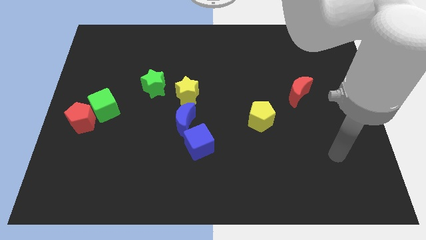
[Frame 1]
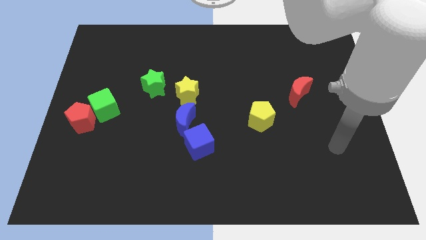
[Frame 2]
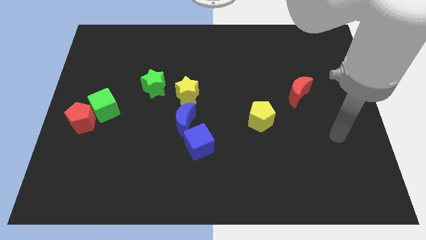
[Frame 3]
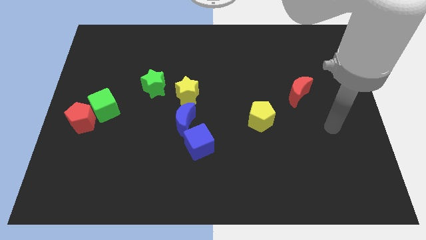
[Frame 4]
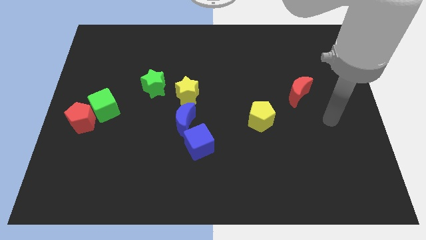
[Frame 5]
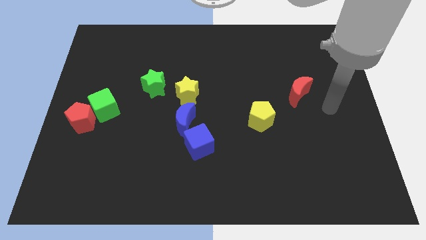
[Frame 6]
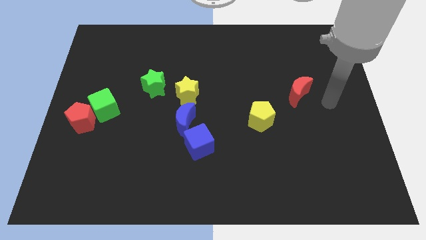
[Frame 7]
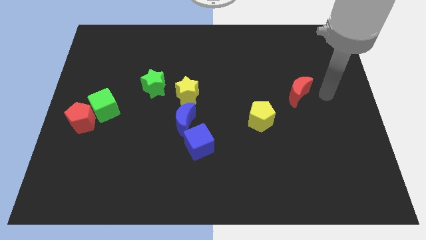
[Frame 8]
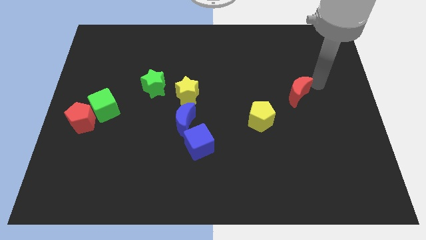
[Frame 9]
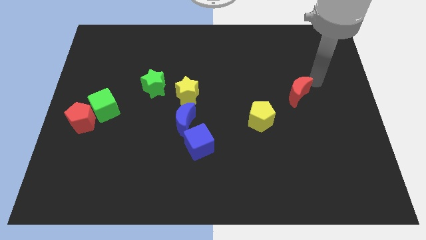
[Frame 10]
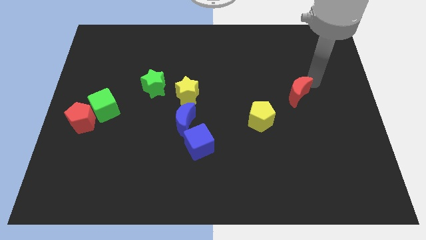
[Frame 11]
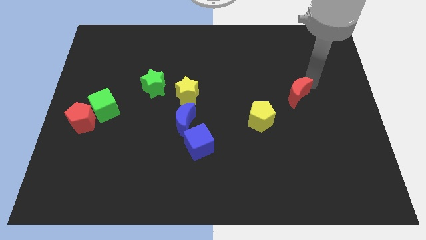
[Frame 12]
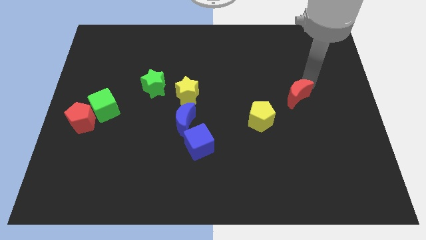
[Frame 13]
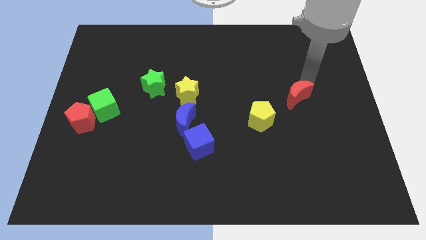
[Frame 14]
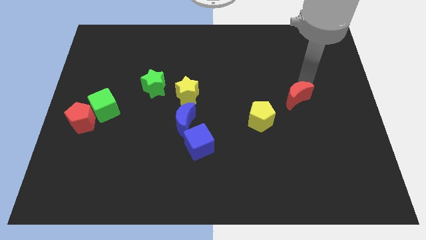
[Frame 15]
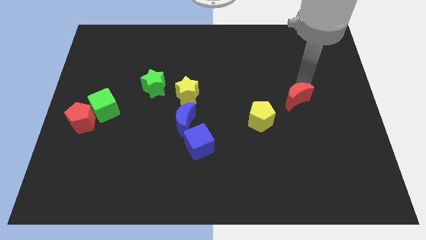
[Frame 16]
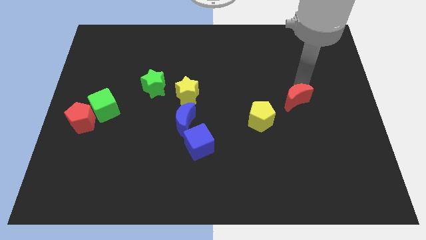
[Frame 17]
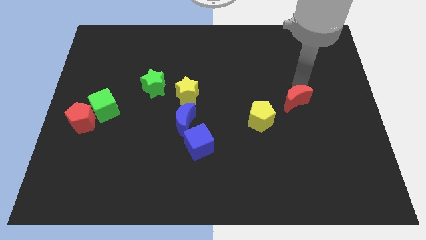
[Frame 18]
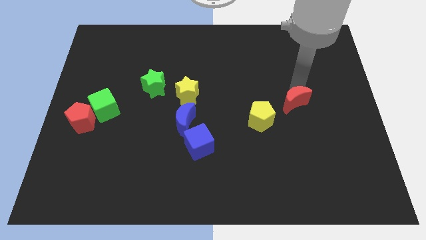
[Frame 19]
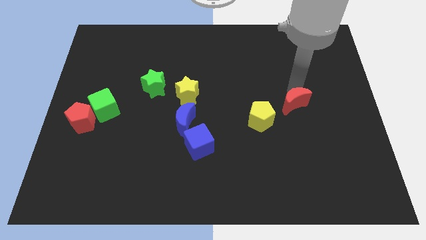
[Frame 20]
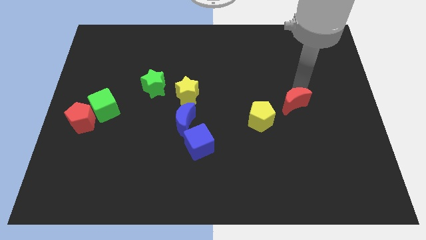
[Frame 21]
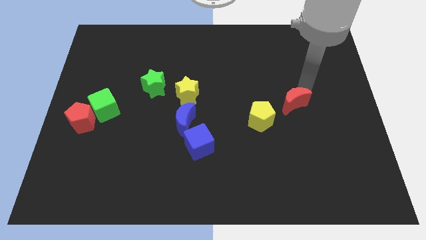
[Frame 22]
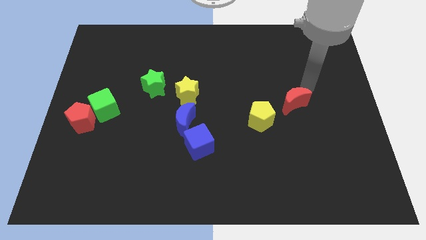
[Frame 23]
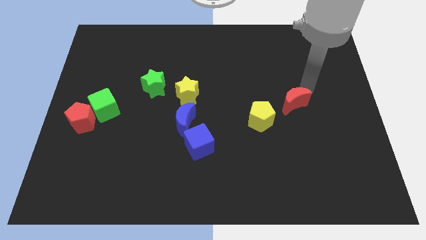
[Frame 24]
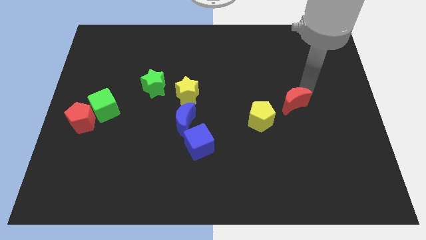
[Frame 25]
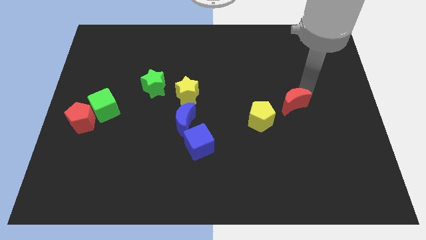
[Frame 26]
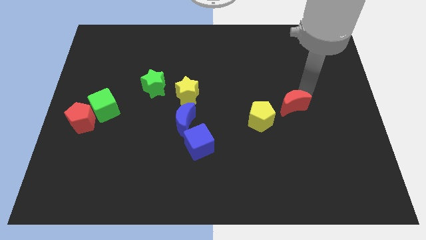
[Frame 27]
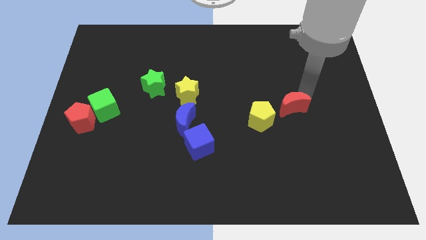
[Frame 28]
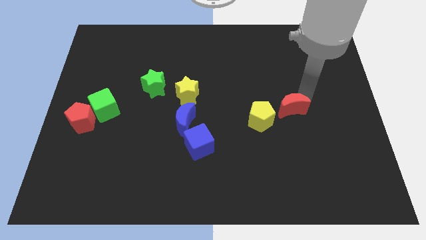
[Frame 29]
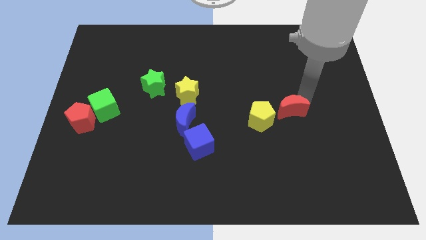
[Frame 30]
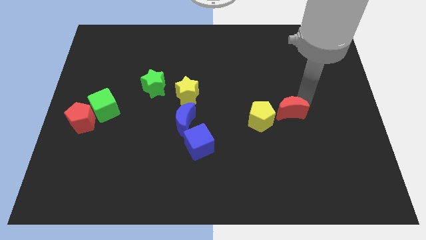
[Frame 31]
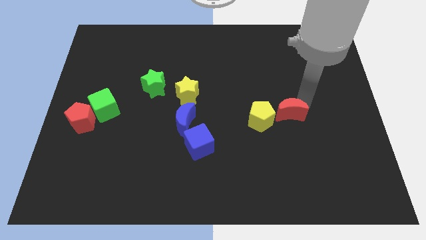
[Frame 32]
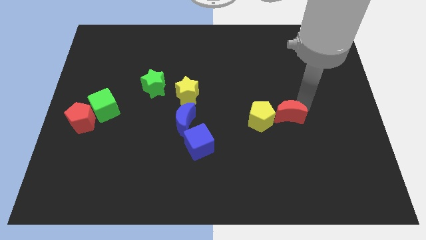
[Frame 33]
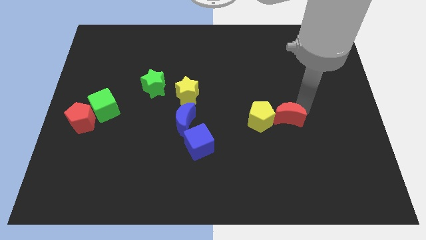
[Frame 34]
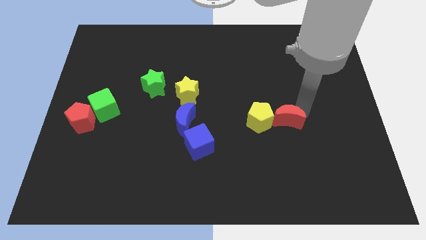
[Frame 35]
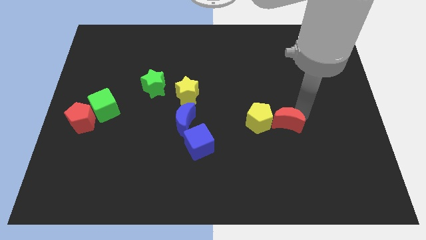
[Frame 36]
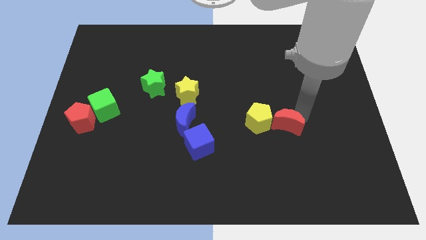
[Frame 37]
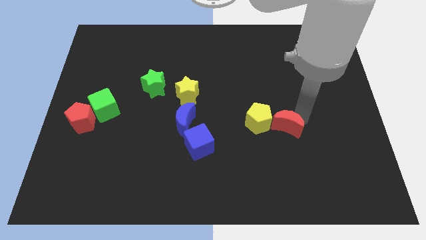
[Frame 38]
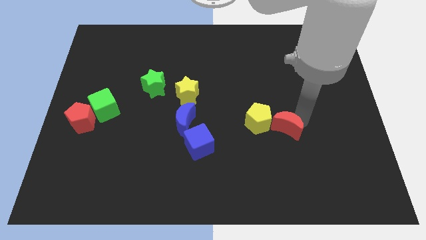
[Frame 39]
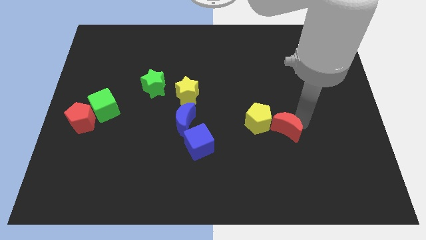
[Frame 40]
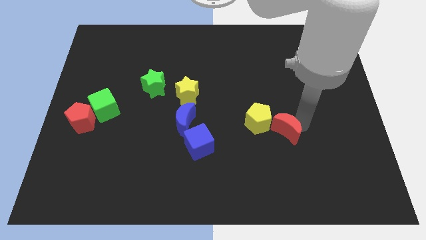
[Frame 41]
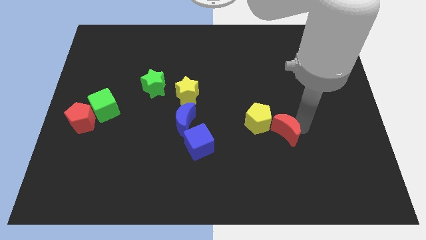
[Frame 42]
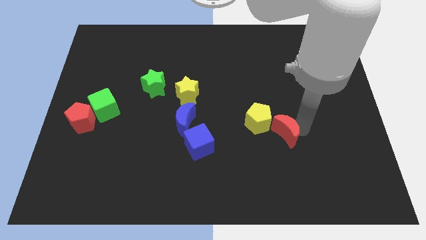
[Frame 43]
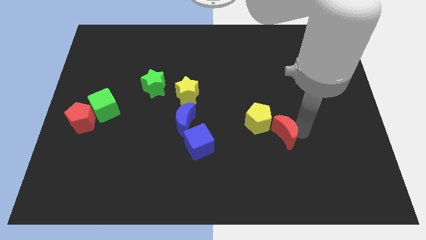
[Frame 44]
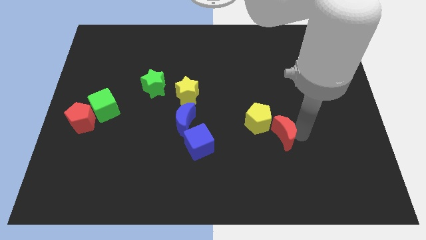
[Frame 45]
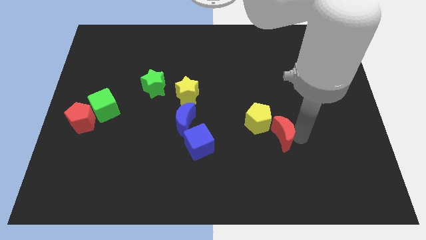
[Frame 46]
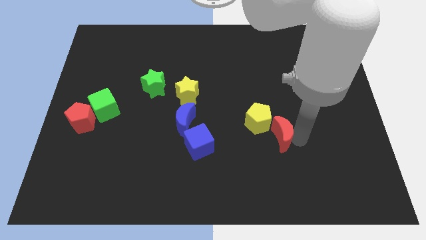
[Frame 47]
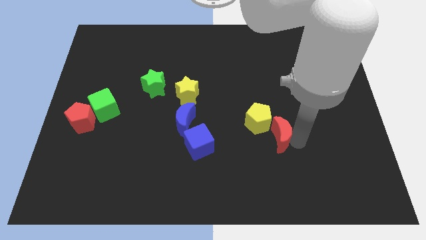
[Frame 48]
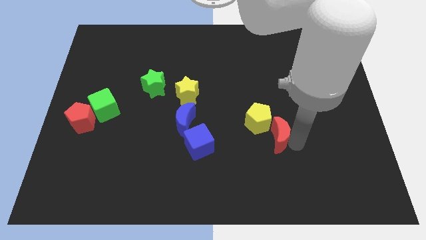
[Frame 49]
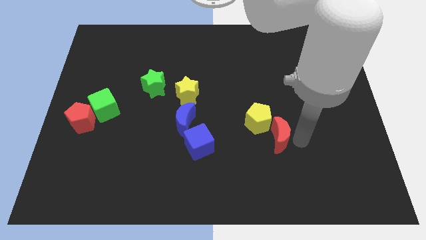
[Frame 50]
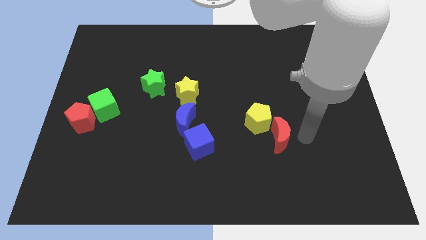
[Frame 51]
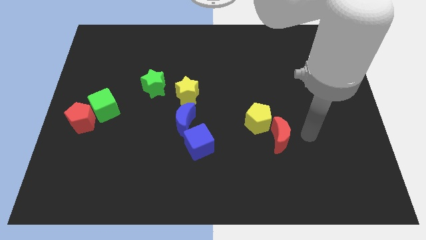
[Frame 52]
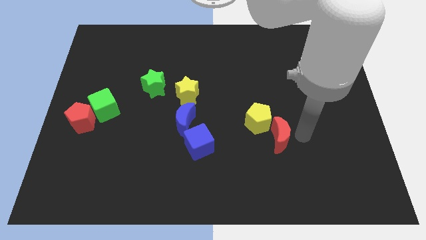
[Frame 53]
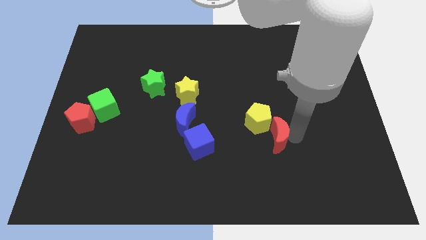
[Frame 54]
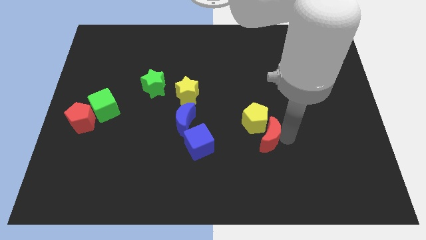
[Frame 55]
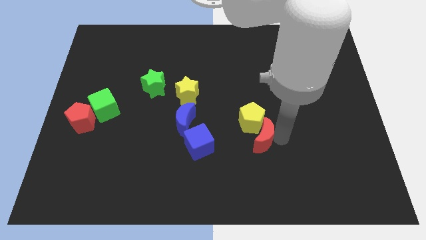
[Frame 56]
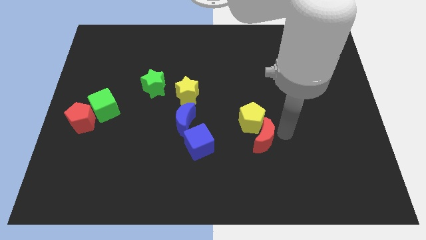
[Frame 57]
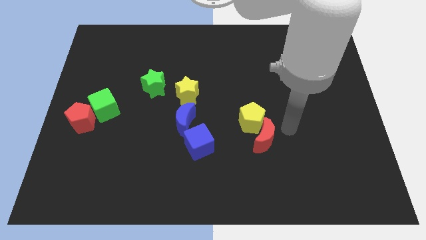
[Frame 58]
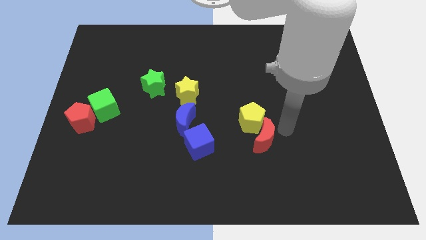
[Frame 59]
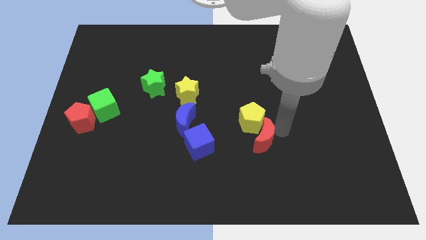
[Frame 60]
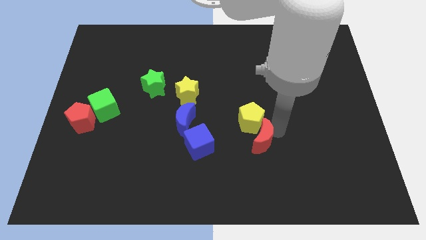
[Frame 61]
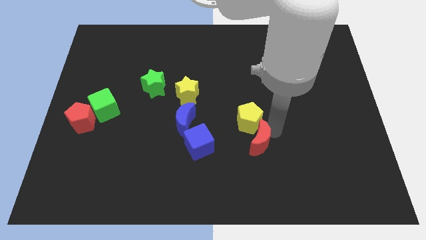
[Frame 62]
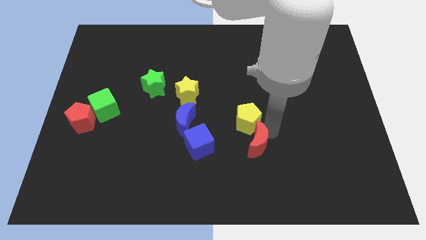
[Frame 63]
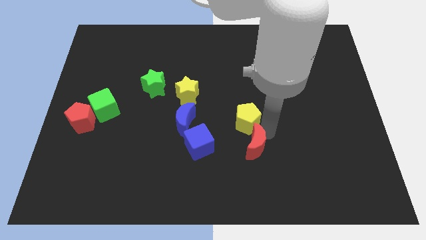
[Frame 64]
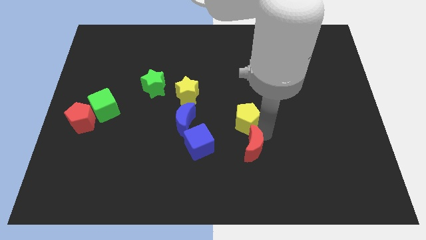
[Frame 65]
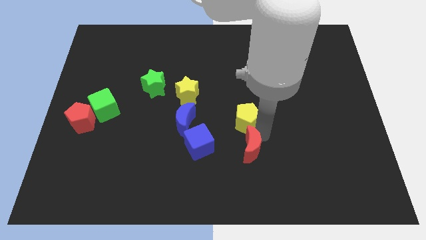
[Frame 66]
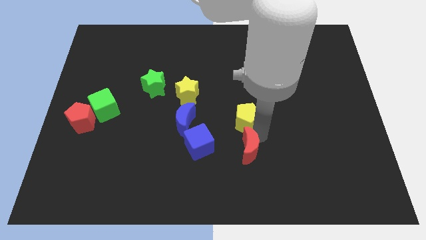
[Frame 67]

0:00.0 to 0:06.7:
slide the red moon downwards and left

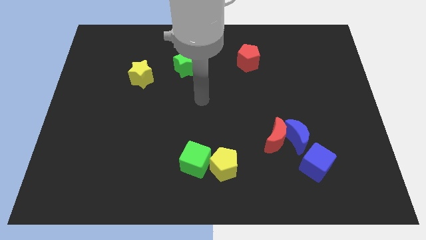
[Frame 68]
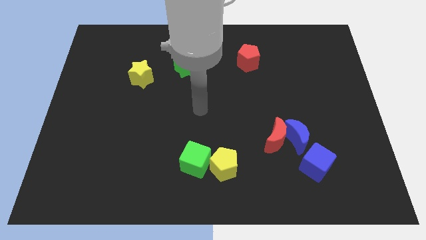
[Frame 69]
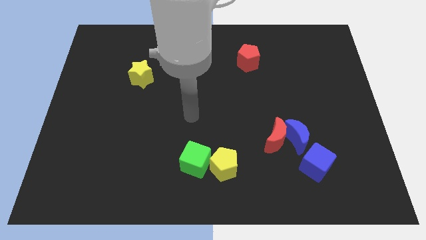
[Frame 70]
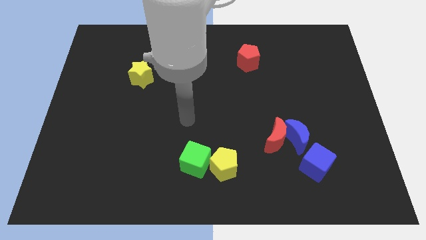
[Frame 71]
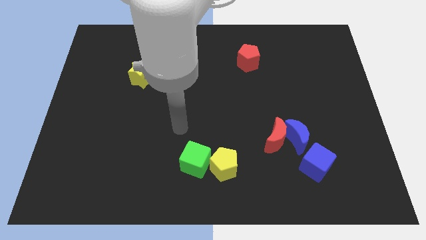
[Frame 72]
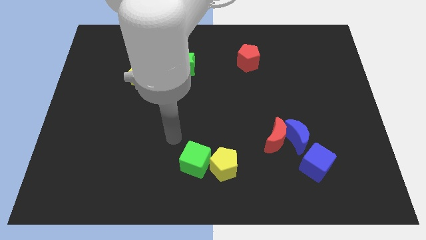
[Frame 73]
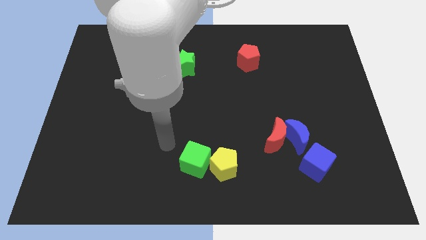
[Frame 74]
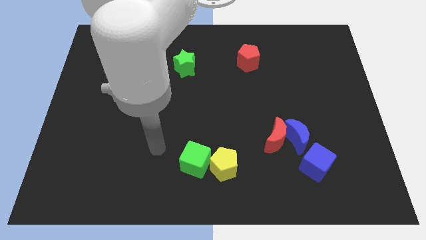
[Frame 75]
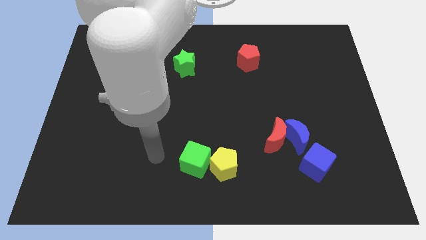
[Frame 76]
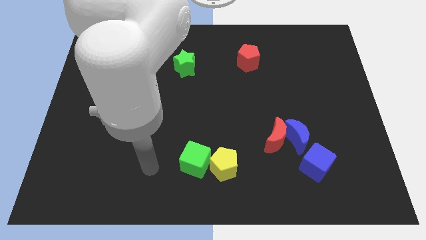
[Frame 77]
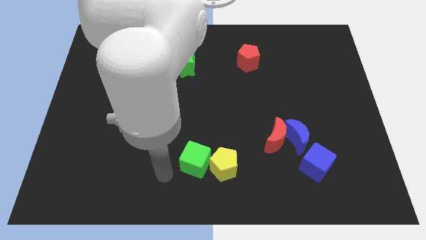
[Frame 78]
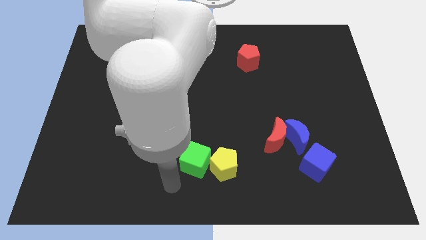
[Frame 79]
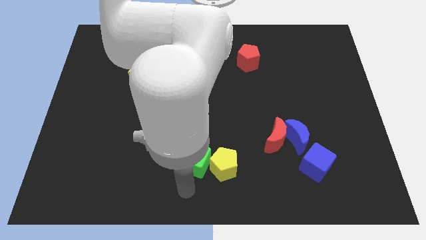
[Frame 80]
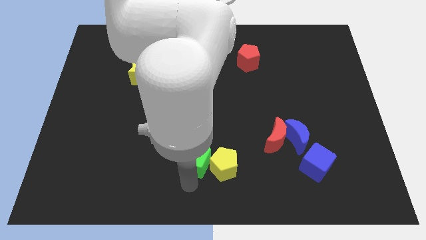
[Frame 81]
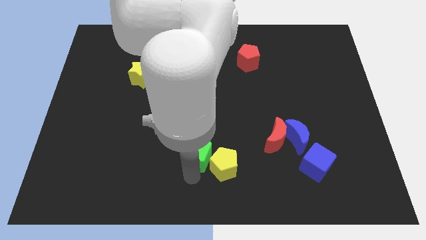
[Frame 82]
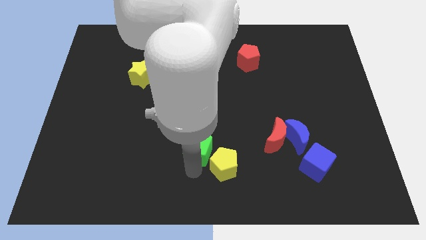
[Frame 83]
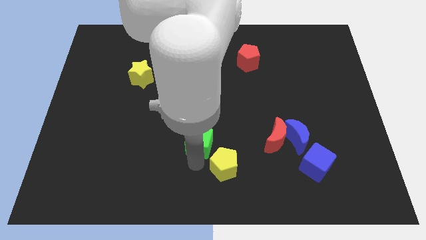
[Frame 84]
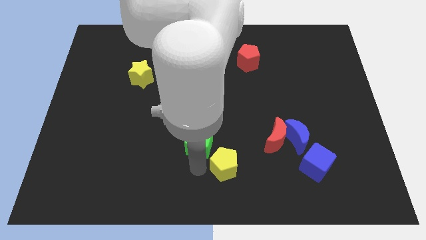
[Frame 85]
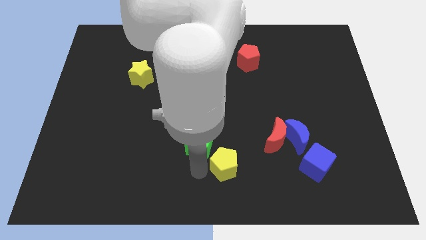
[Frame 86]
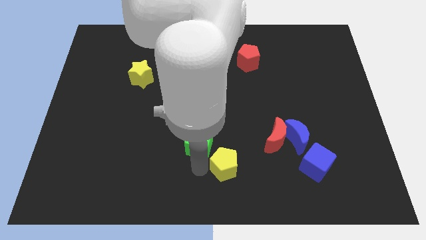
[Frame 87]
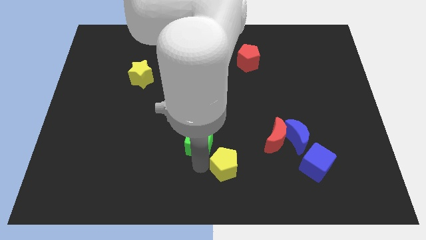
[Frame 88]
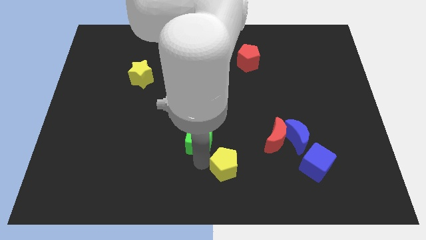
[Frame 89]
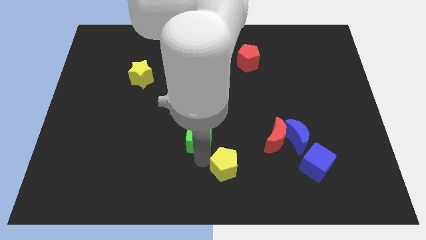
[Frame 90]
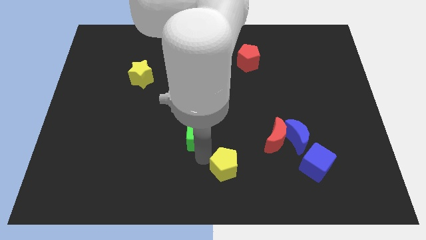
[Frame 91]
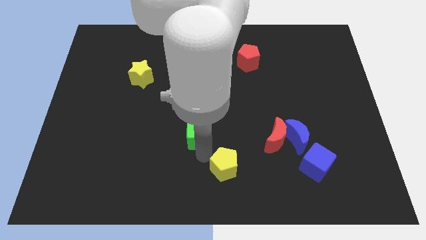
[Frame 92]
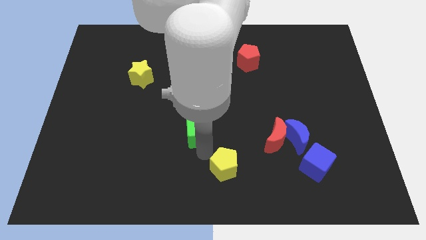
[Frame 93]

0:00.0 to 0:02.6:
slide the green cube up a little
